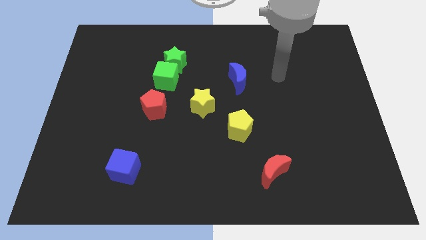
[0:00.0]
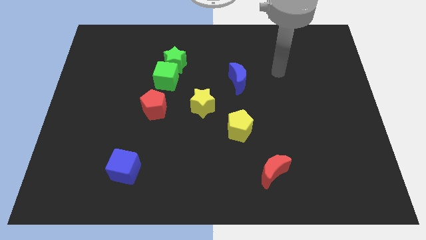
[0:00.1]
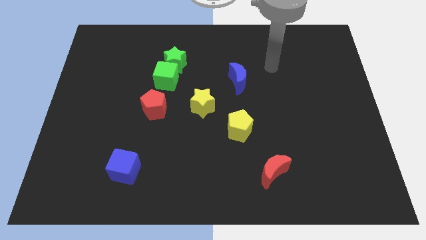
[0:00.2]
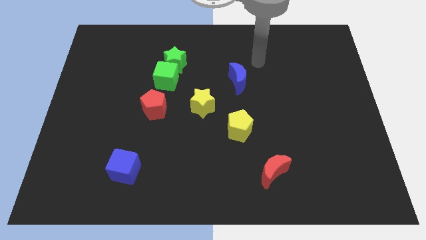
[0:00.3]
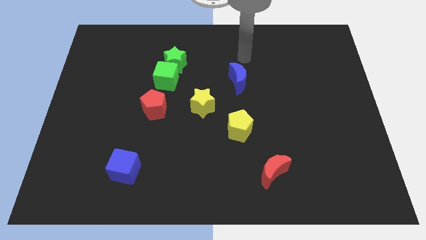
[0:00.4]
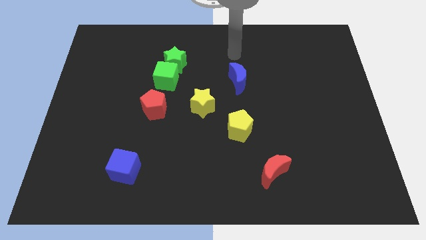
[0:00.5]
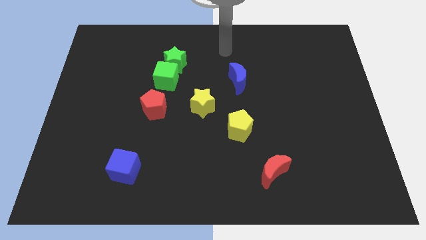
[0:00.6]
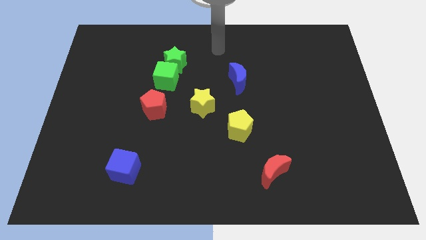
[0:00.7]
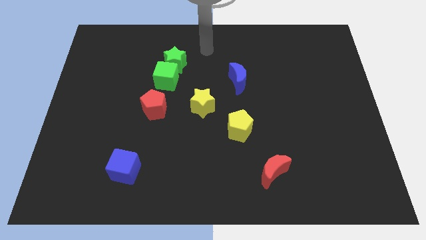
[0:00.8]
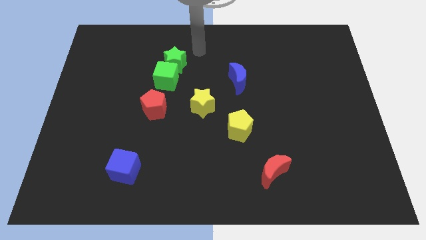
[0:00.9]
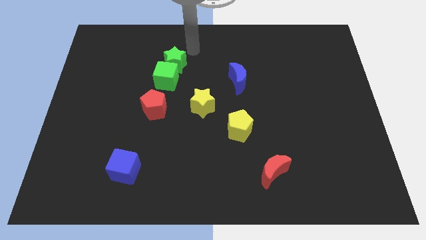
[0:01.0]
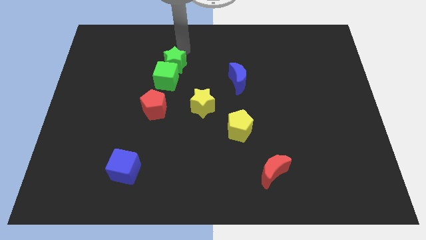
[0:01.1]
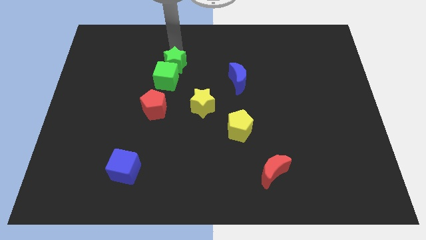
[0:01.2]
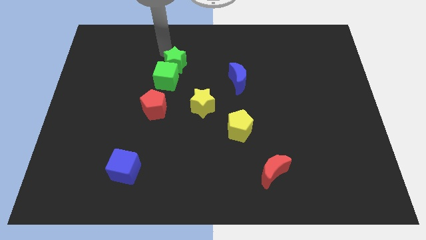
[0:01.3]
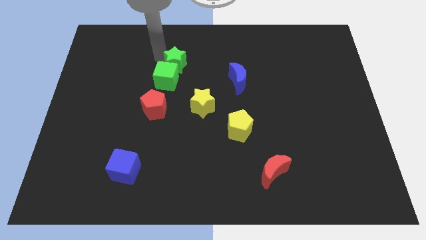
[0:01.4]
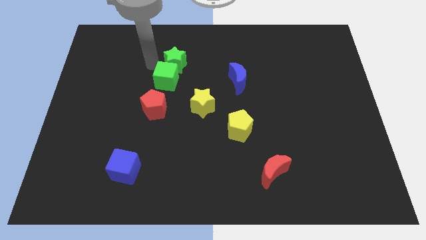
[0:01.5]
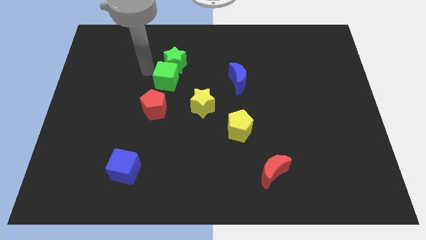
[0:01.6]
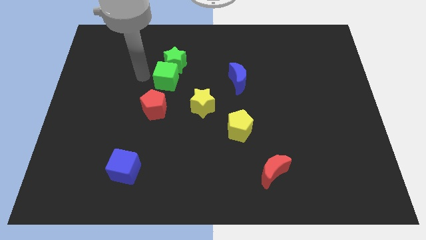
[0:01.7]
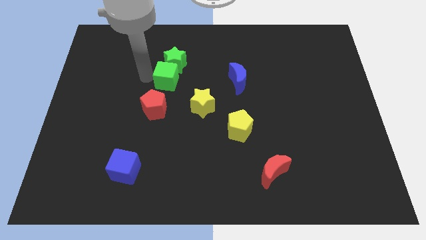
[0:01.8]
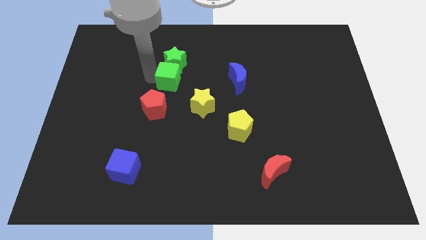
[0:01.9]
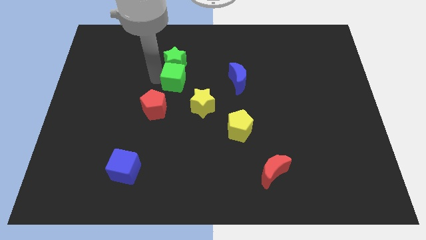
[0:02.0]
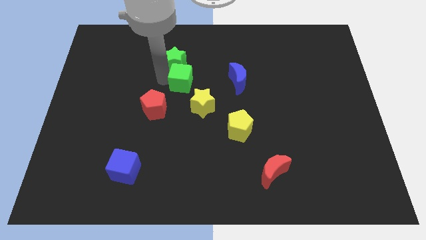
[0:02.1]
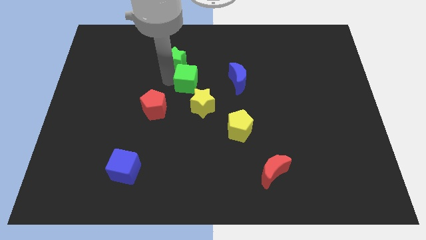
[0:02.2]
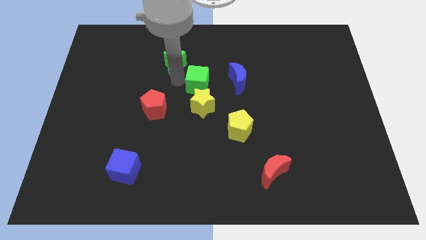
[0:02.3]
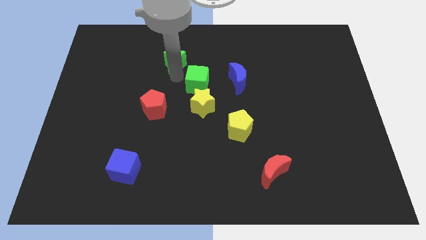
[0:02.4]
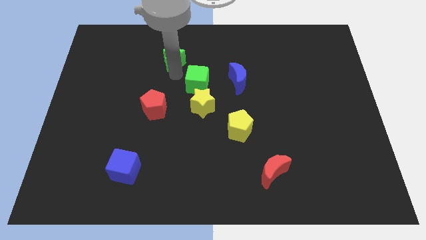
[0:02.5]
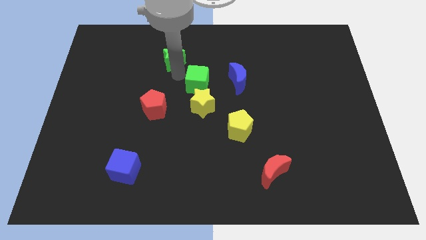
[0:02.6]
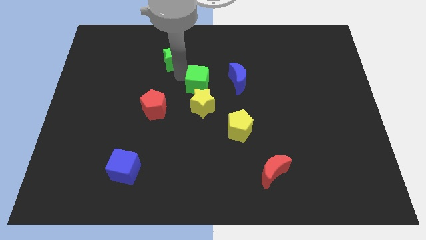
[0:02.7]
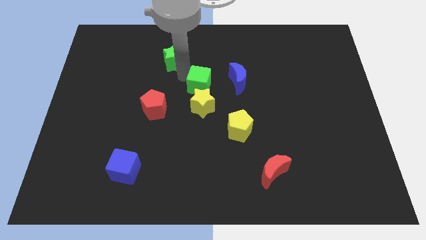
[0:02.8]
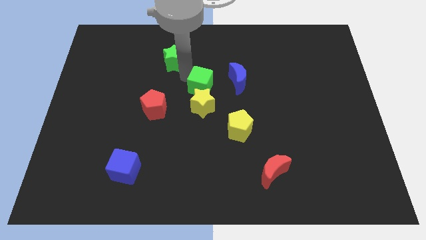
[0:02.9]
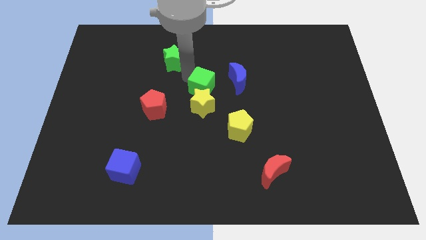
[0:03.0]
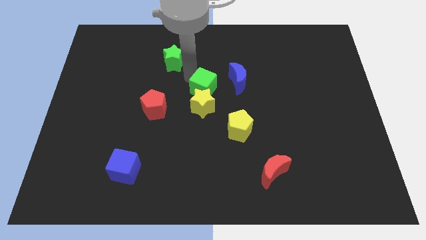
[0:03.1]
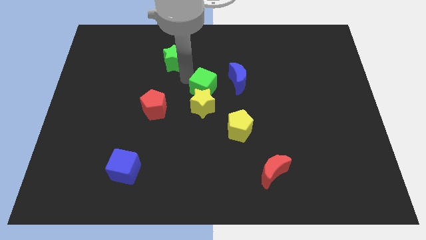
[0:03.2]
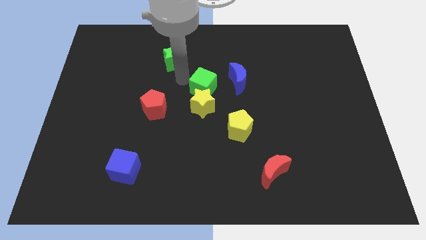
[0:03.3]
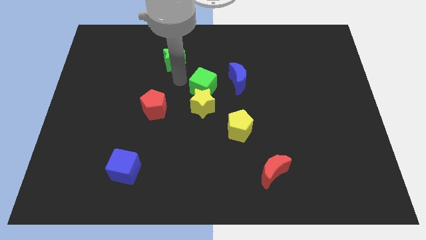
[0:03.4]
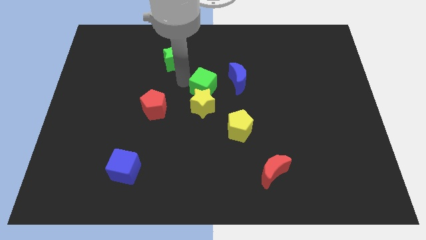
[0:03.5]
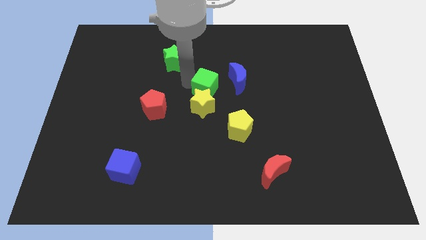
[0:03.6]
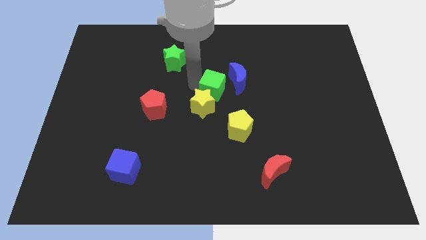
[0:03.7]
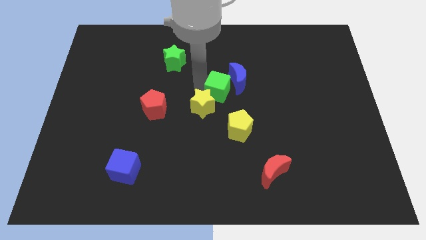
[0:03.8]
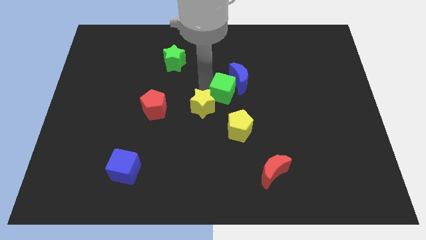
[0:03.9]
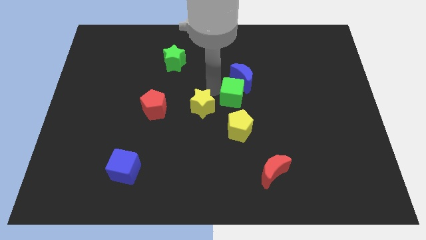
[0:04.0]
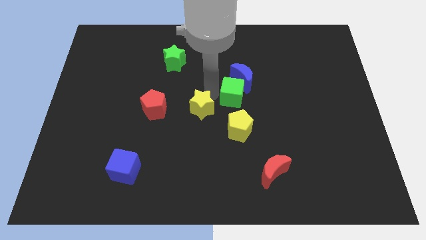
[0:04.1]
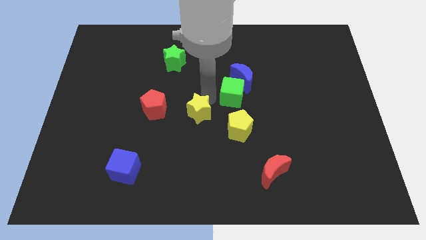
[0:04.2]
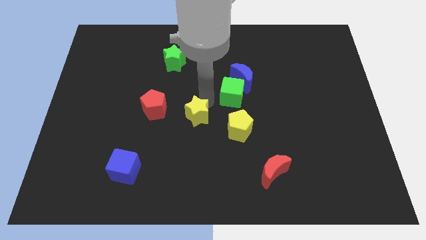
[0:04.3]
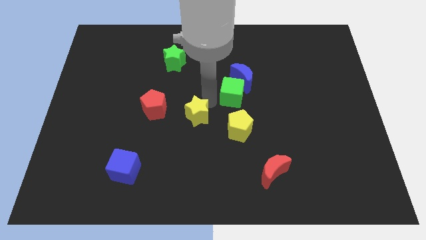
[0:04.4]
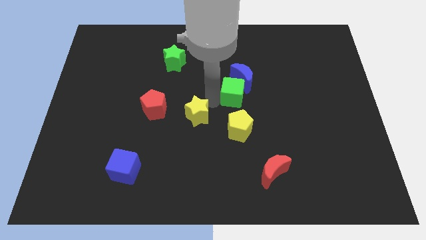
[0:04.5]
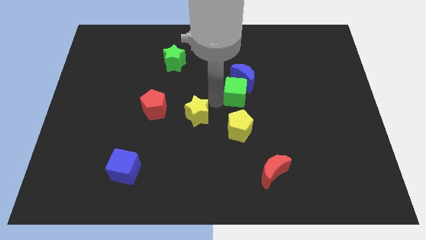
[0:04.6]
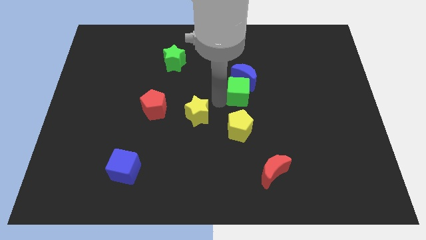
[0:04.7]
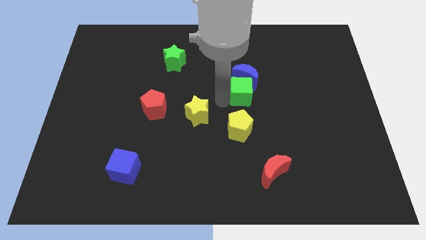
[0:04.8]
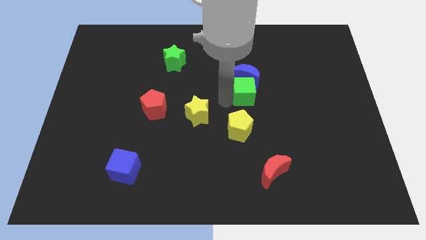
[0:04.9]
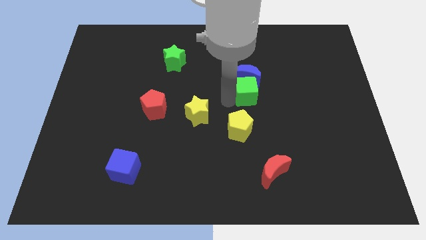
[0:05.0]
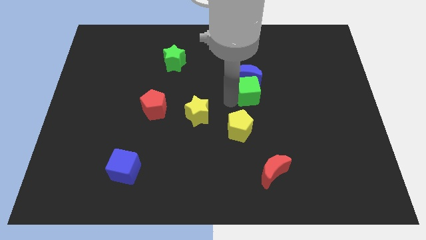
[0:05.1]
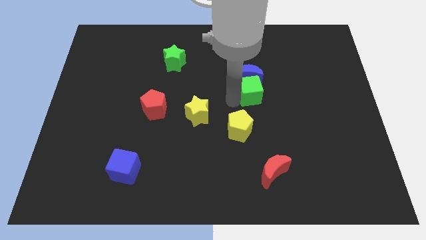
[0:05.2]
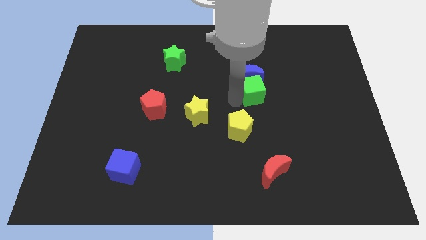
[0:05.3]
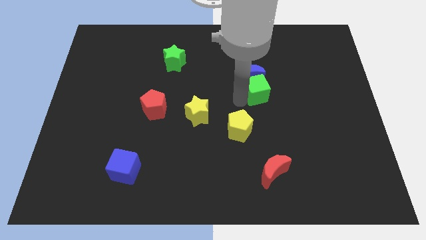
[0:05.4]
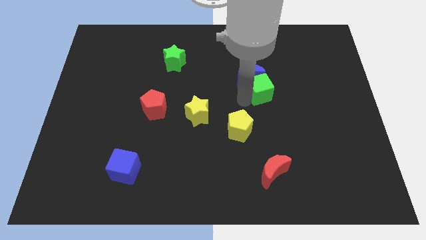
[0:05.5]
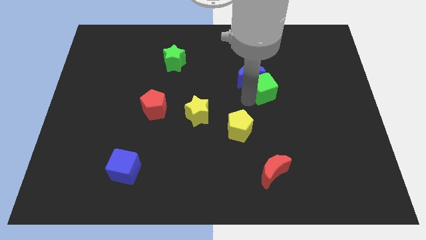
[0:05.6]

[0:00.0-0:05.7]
push the green cube to the right side of the blue moon

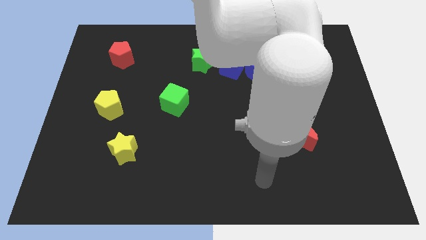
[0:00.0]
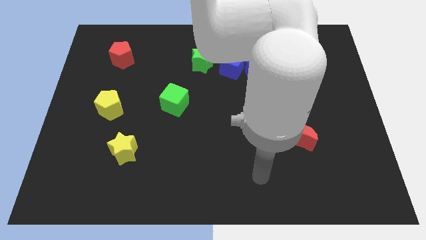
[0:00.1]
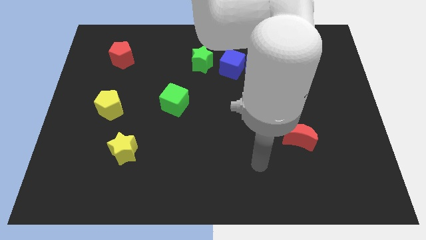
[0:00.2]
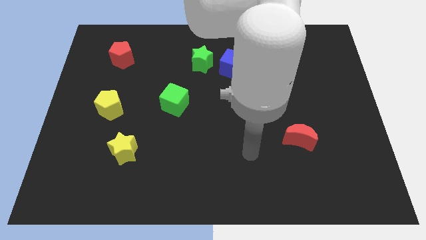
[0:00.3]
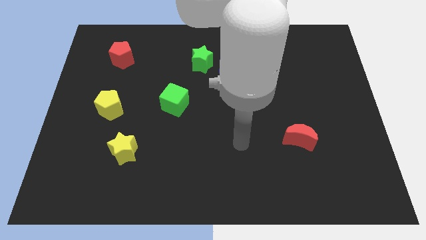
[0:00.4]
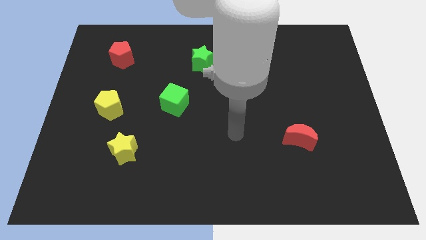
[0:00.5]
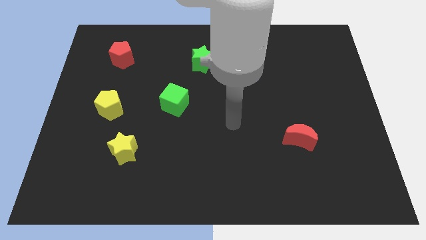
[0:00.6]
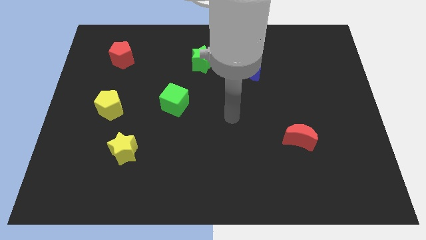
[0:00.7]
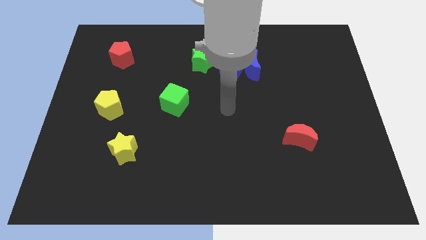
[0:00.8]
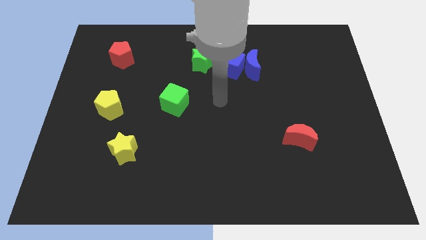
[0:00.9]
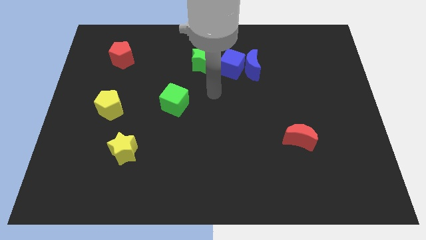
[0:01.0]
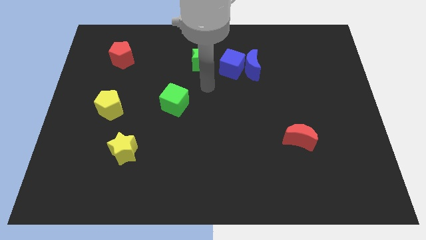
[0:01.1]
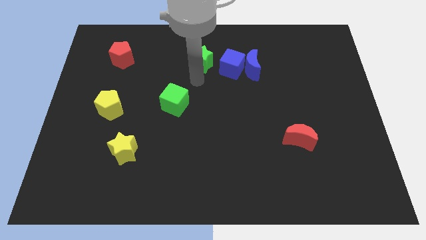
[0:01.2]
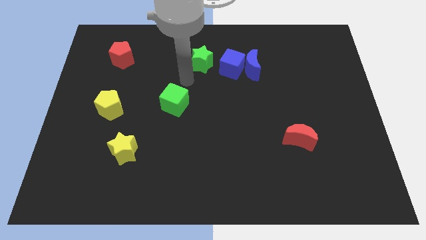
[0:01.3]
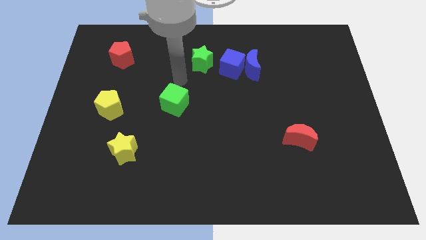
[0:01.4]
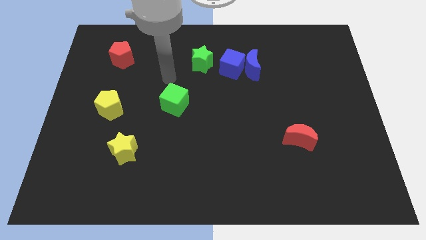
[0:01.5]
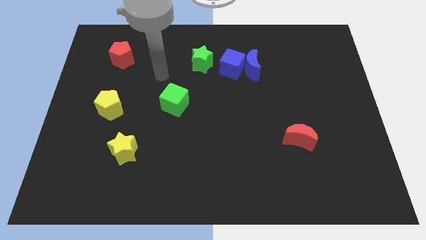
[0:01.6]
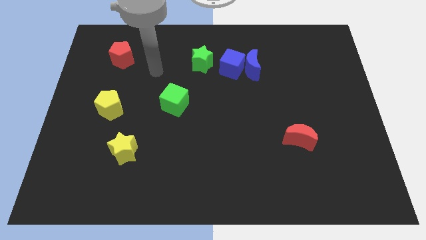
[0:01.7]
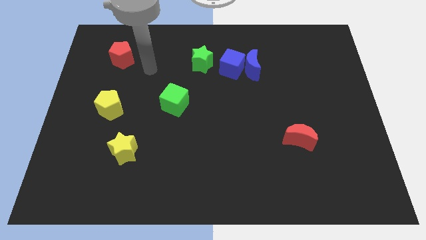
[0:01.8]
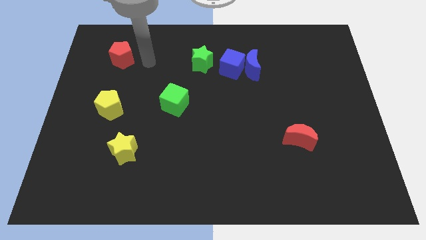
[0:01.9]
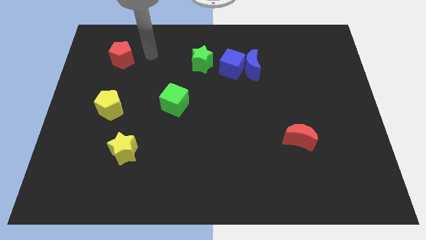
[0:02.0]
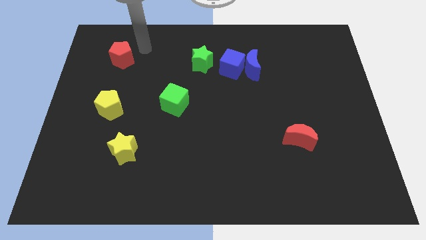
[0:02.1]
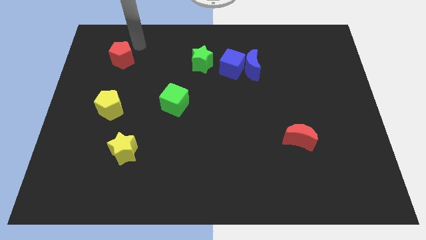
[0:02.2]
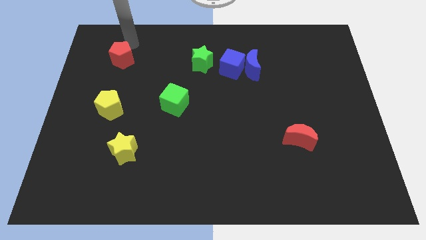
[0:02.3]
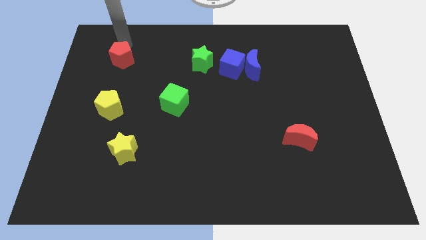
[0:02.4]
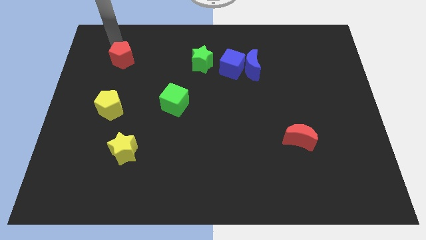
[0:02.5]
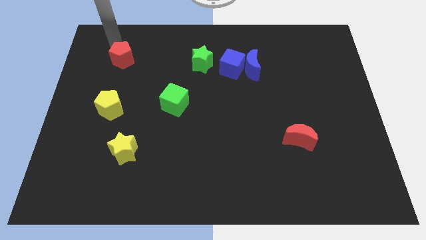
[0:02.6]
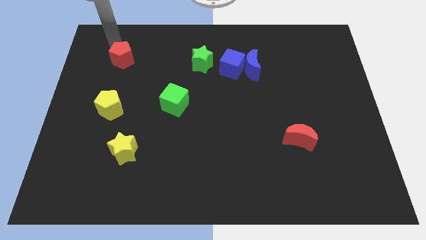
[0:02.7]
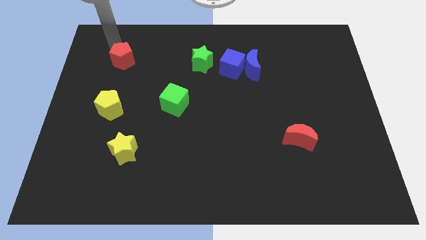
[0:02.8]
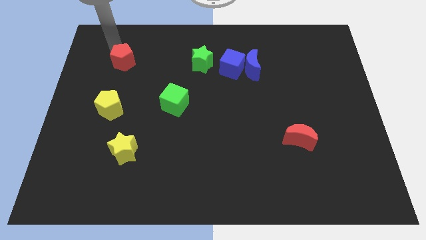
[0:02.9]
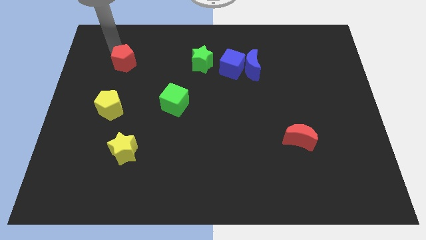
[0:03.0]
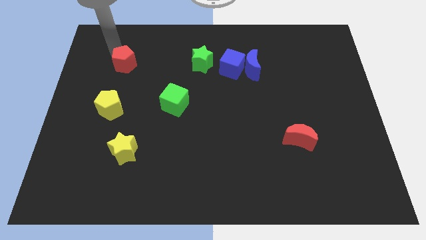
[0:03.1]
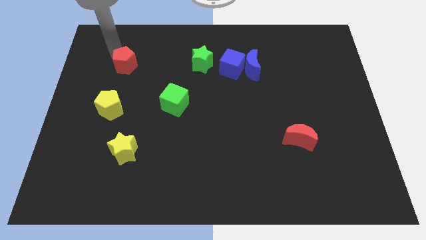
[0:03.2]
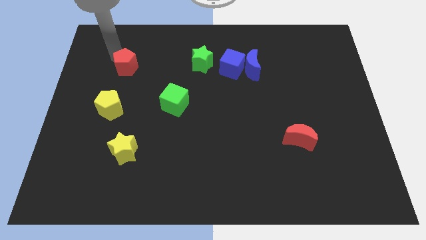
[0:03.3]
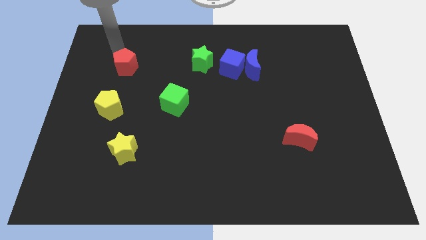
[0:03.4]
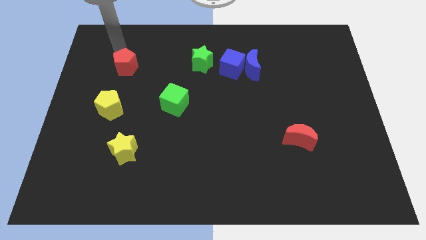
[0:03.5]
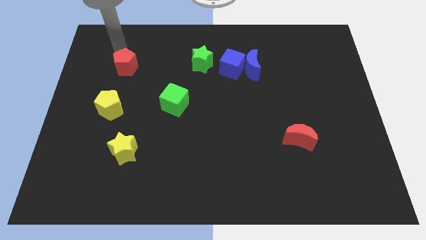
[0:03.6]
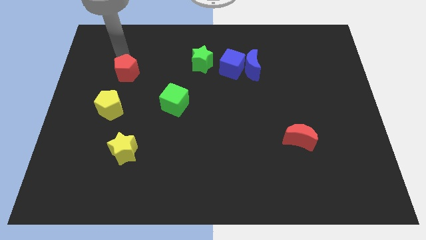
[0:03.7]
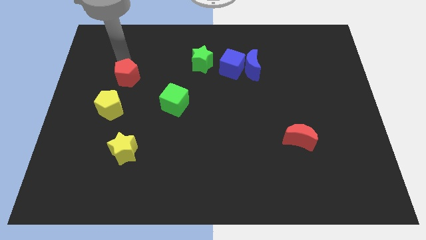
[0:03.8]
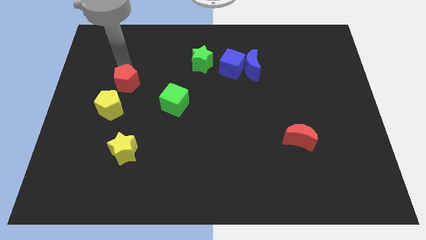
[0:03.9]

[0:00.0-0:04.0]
put the red pentagon to the top right of the yellow pentagon
